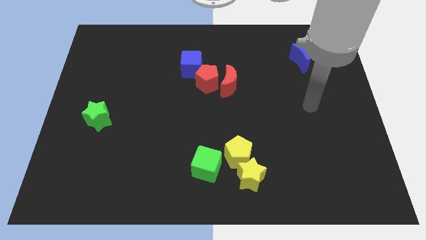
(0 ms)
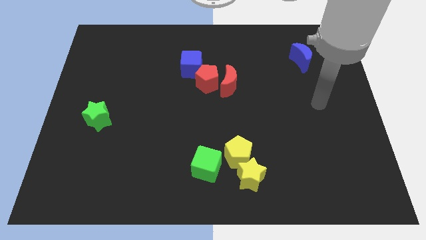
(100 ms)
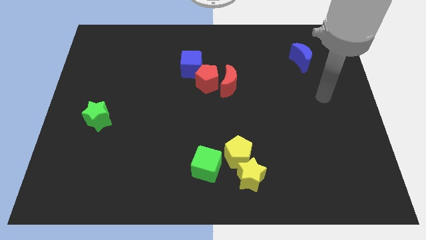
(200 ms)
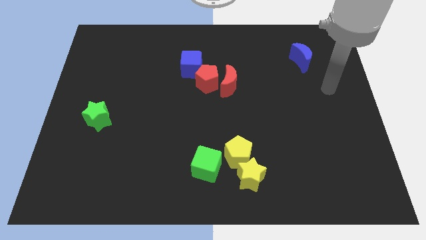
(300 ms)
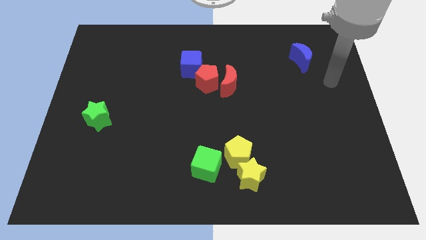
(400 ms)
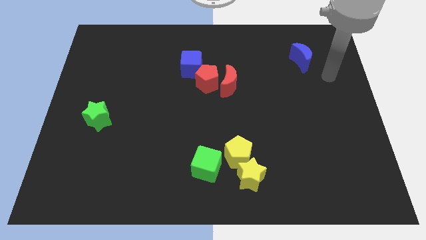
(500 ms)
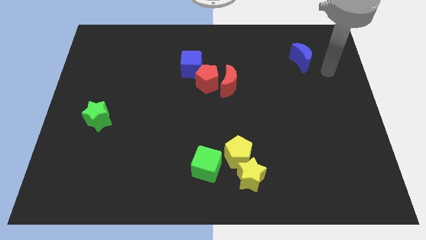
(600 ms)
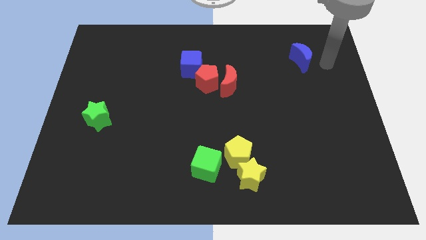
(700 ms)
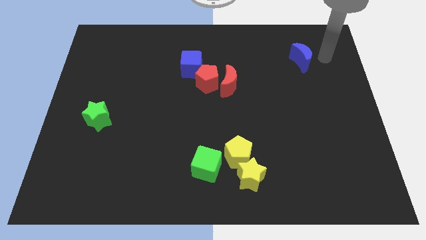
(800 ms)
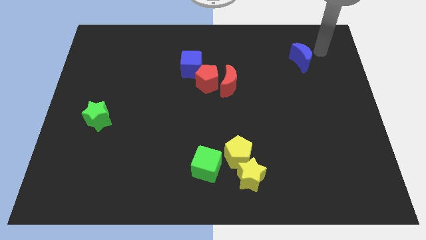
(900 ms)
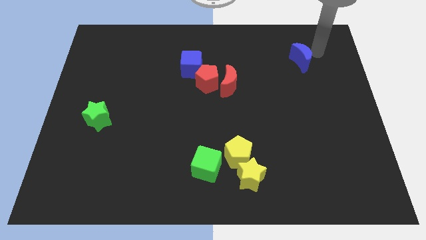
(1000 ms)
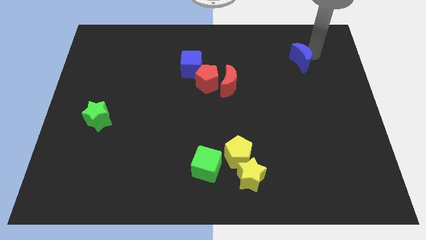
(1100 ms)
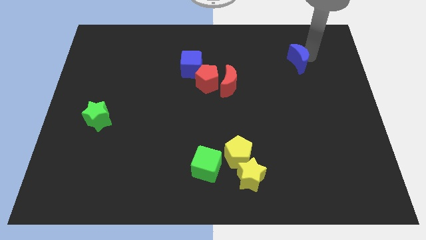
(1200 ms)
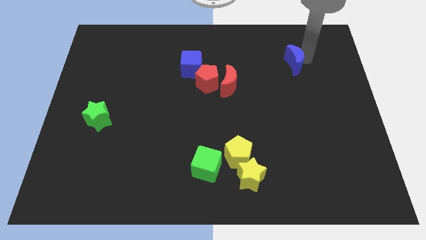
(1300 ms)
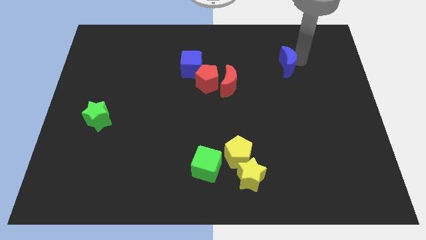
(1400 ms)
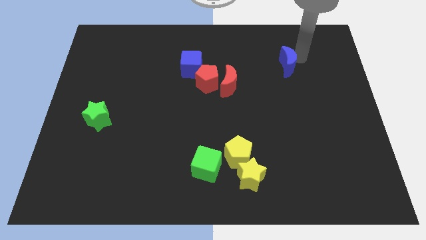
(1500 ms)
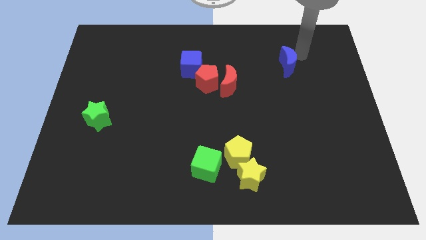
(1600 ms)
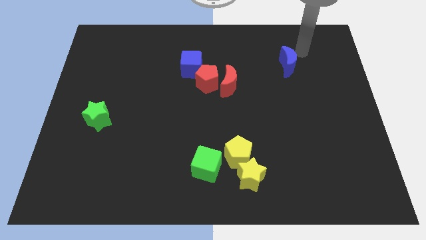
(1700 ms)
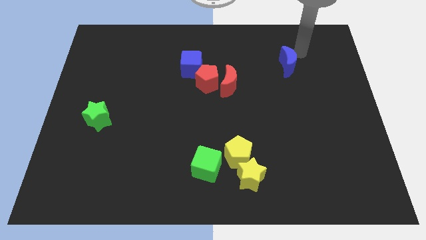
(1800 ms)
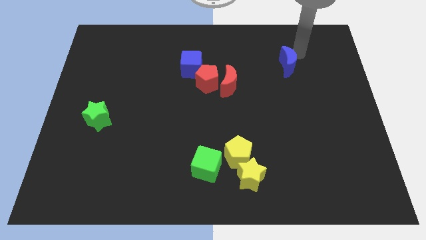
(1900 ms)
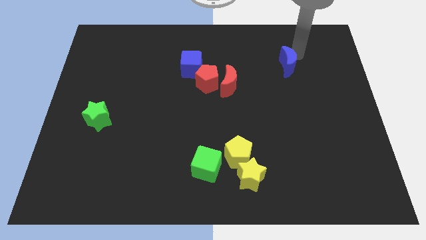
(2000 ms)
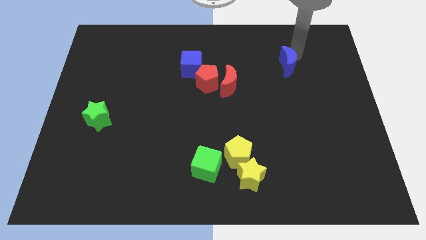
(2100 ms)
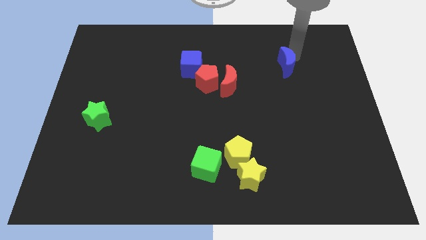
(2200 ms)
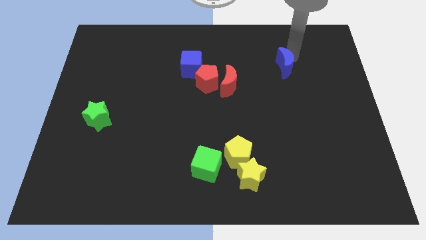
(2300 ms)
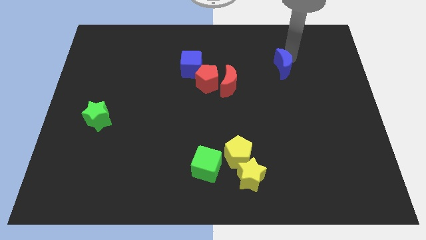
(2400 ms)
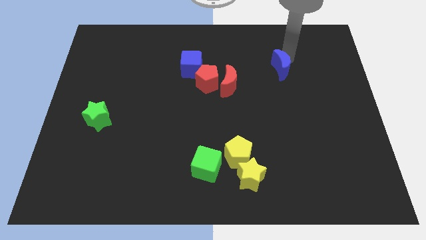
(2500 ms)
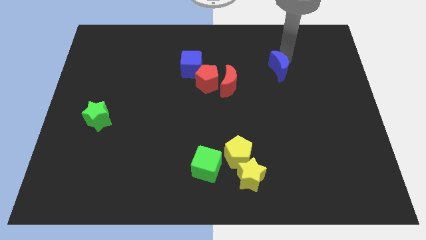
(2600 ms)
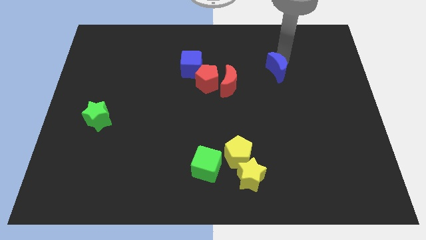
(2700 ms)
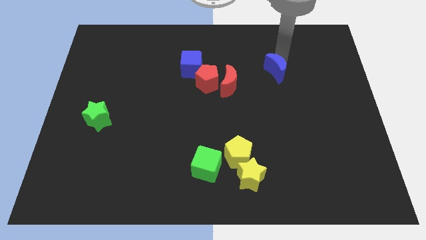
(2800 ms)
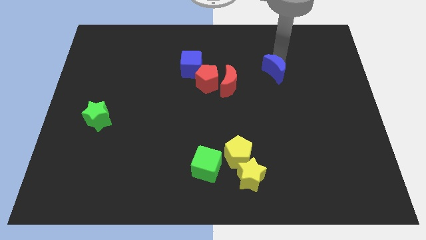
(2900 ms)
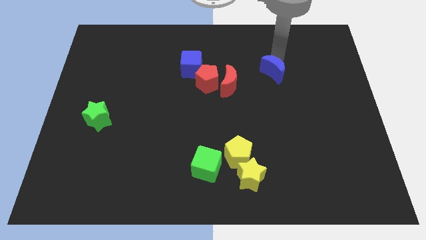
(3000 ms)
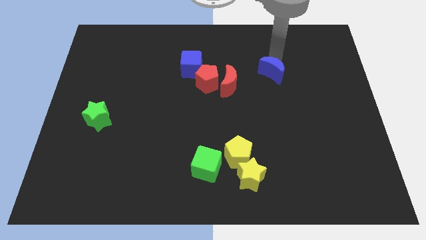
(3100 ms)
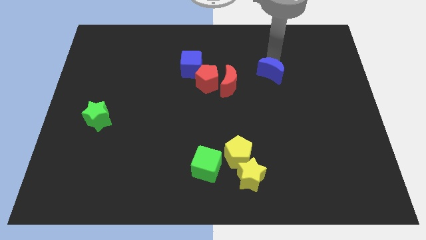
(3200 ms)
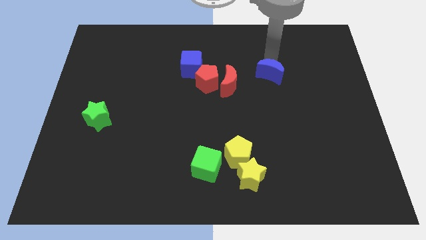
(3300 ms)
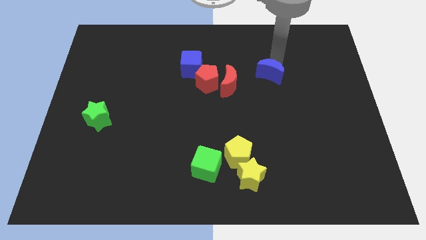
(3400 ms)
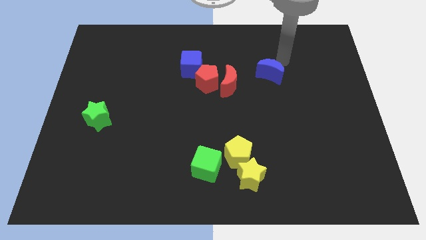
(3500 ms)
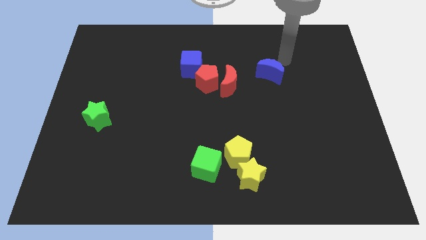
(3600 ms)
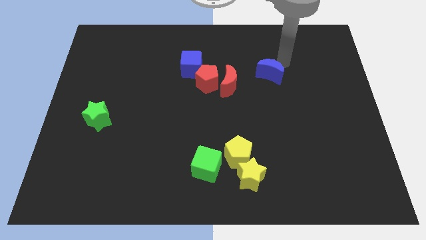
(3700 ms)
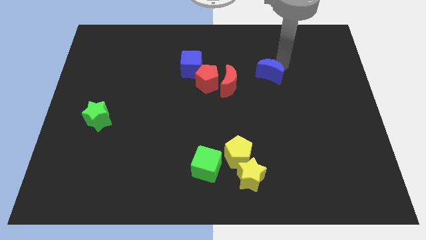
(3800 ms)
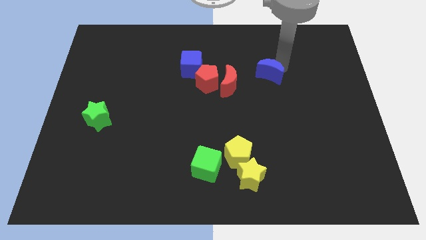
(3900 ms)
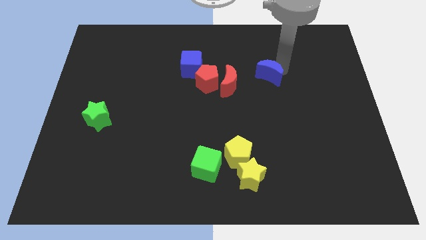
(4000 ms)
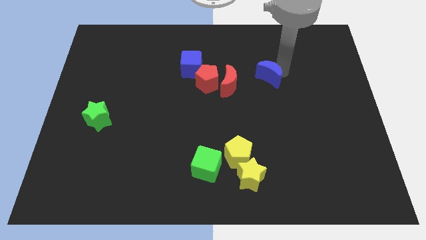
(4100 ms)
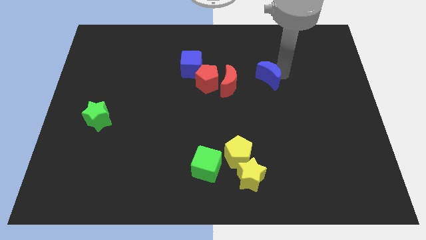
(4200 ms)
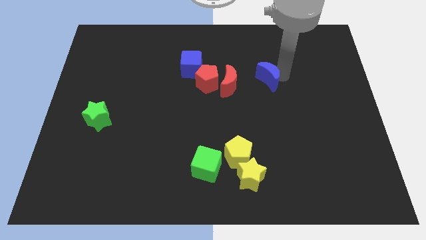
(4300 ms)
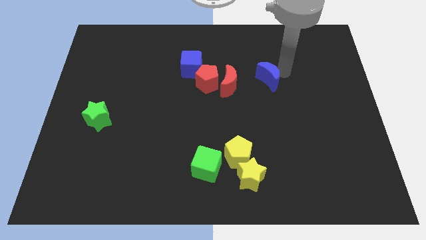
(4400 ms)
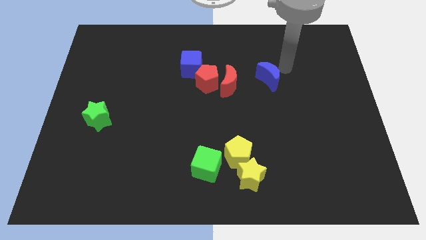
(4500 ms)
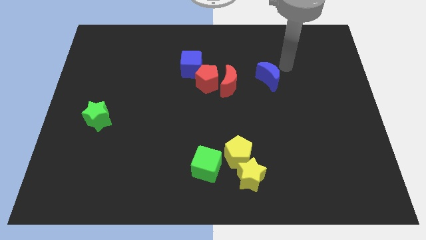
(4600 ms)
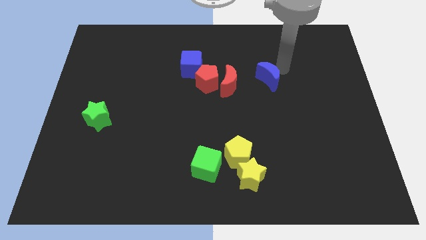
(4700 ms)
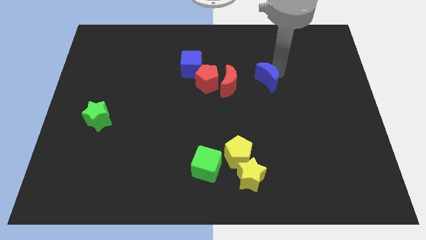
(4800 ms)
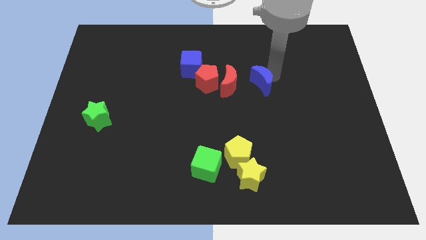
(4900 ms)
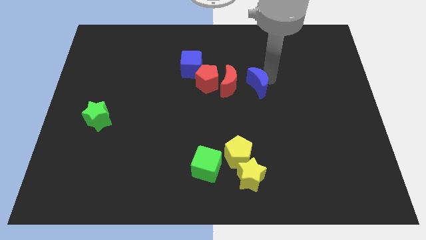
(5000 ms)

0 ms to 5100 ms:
push the blue moon to the center

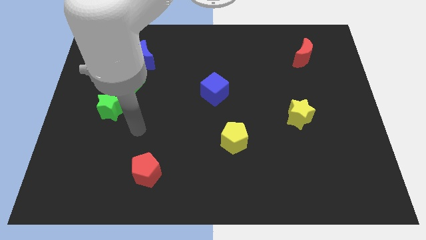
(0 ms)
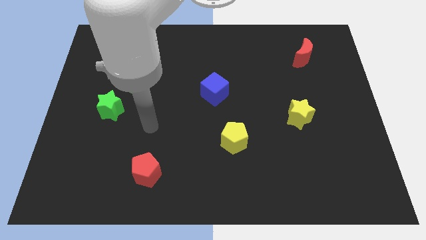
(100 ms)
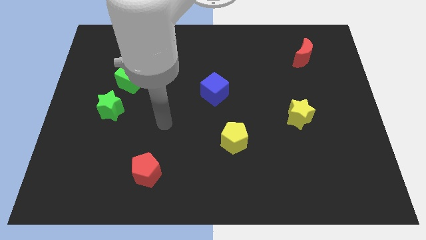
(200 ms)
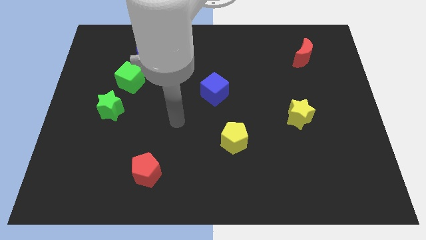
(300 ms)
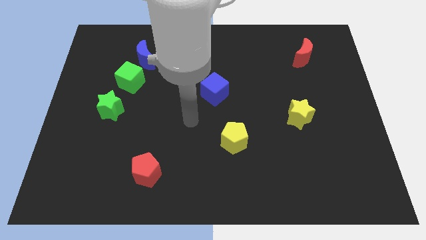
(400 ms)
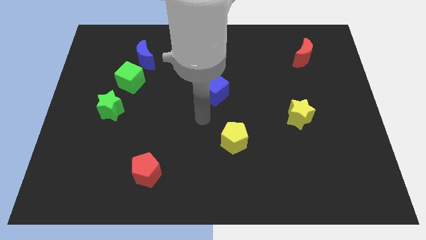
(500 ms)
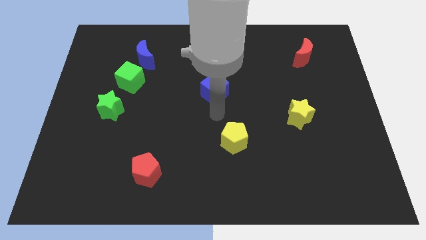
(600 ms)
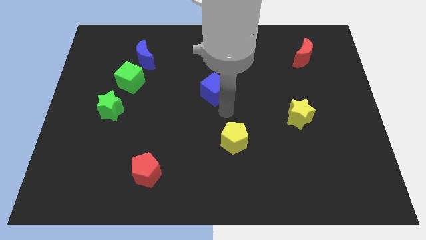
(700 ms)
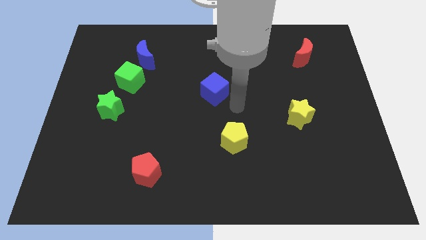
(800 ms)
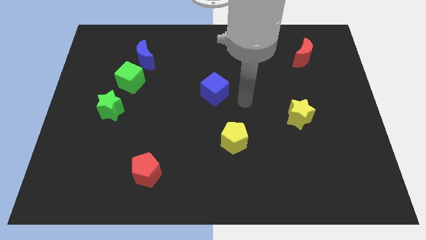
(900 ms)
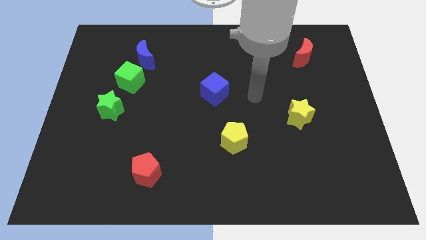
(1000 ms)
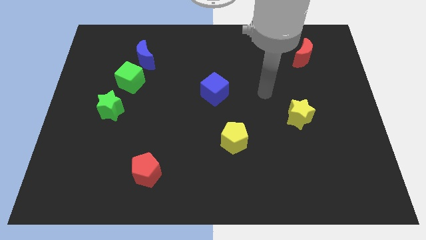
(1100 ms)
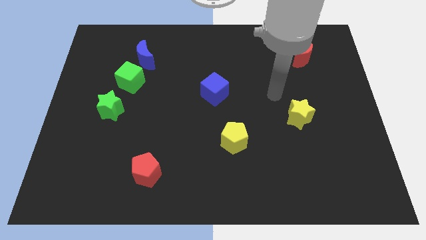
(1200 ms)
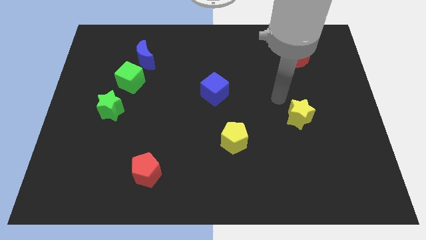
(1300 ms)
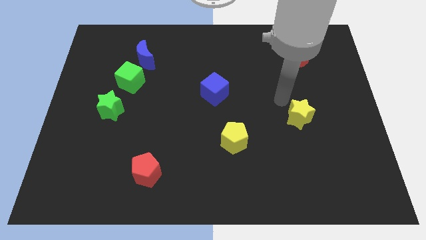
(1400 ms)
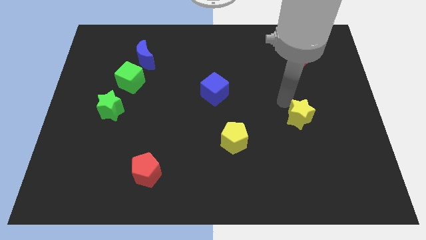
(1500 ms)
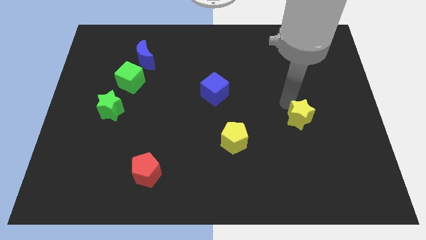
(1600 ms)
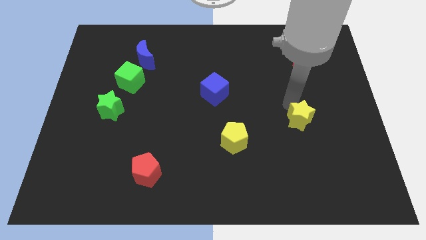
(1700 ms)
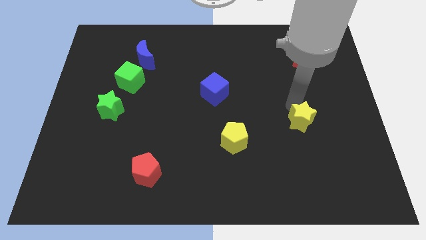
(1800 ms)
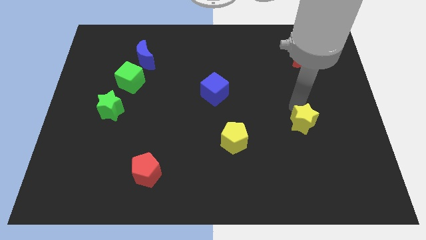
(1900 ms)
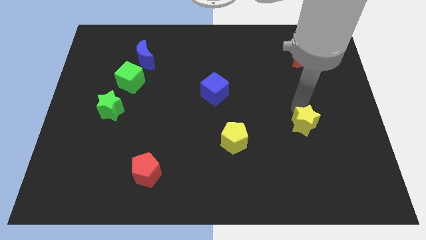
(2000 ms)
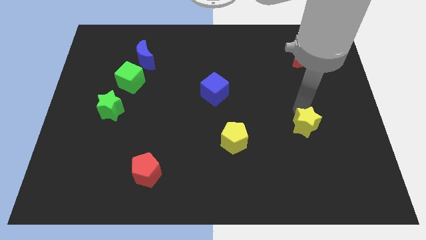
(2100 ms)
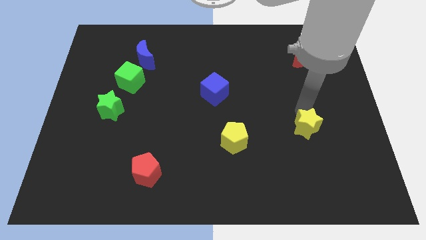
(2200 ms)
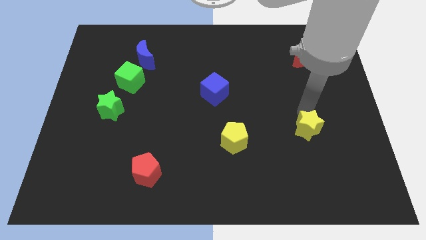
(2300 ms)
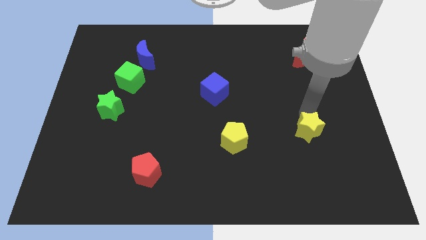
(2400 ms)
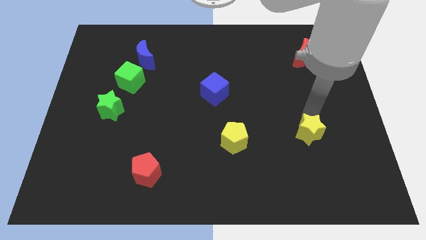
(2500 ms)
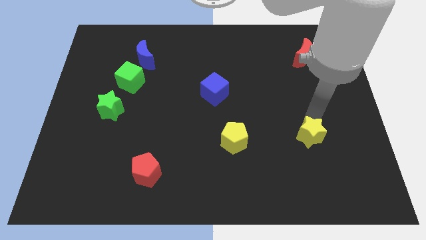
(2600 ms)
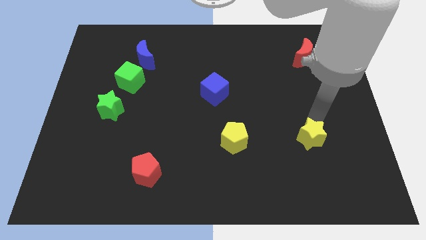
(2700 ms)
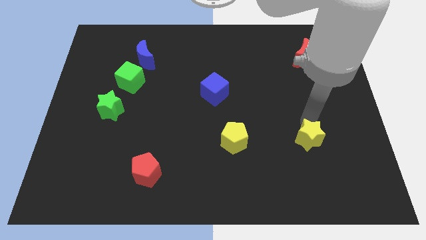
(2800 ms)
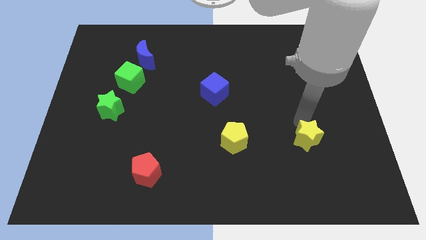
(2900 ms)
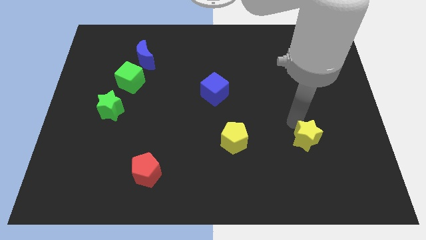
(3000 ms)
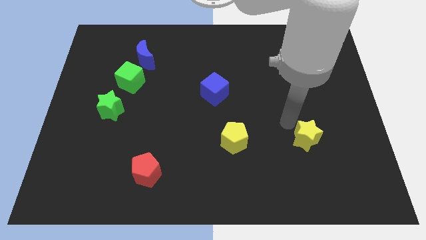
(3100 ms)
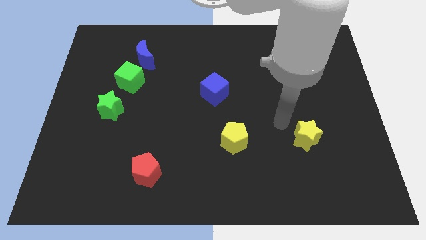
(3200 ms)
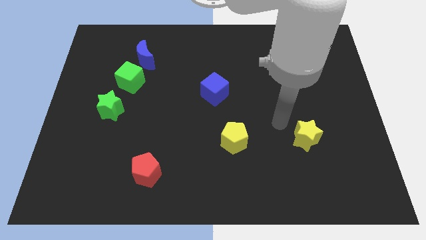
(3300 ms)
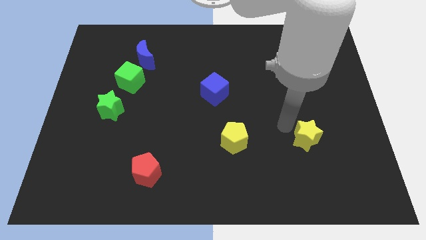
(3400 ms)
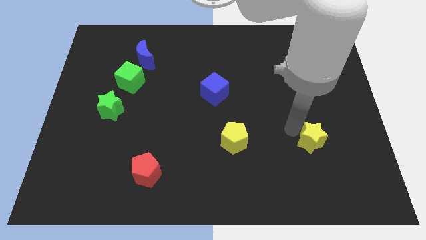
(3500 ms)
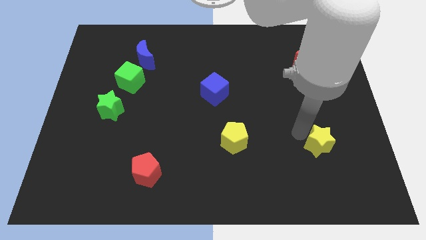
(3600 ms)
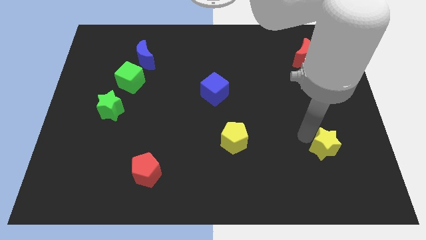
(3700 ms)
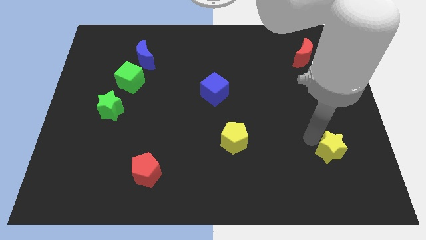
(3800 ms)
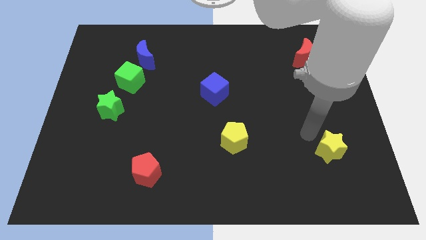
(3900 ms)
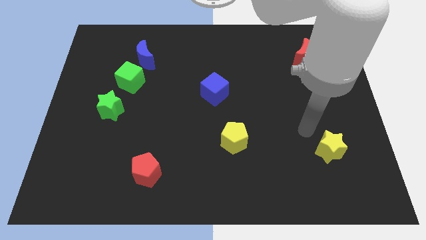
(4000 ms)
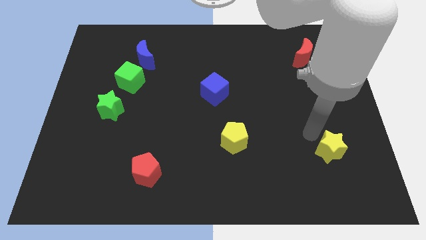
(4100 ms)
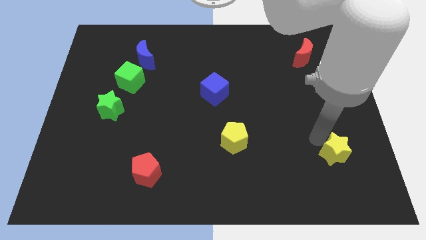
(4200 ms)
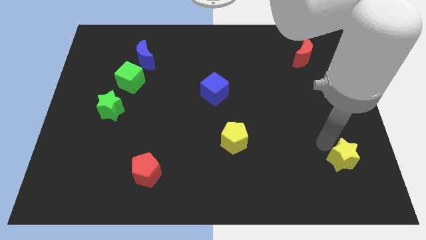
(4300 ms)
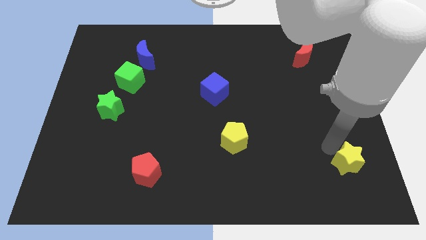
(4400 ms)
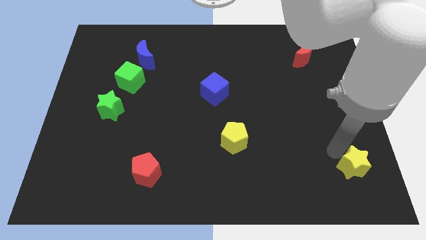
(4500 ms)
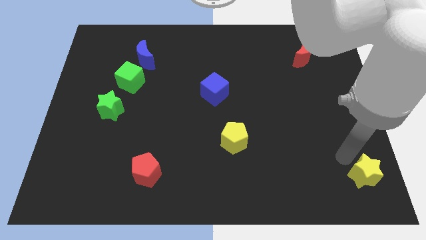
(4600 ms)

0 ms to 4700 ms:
slide the yellow star to the bottom right of the board
